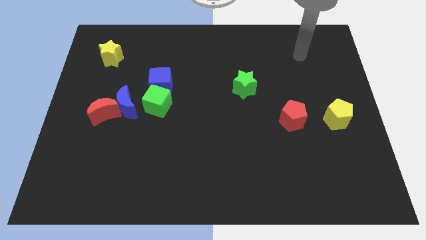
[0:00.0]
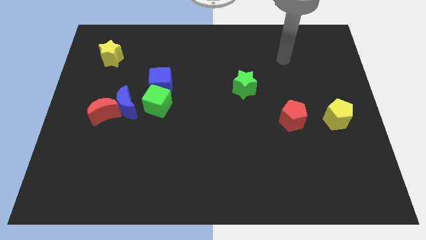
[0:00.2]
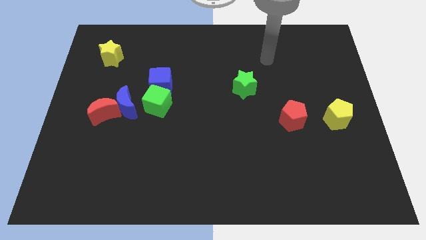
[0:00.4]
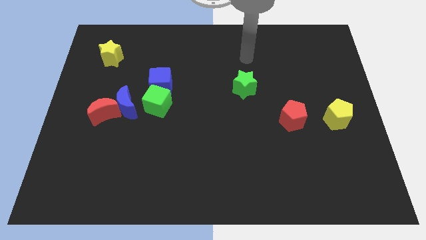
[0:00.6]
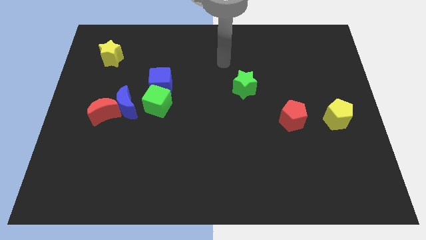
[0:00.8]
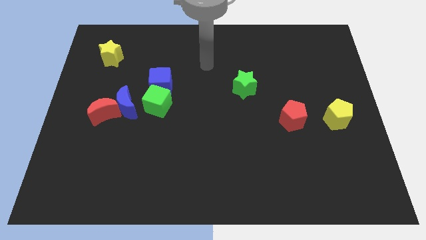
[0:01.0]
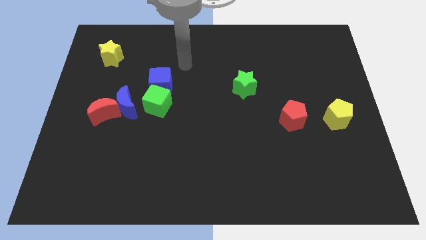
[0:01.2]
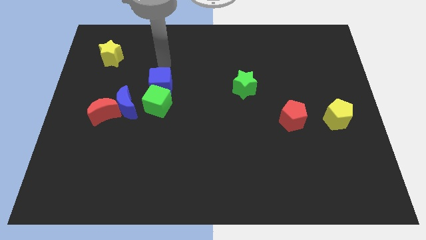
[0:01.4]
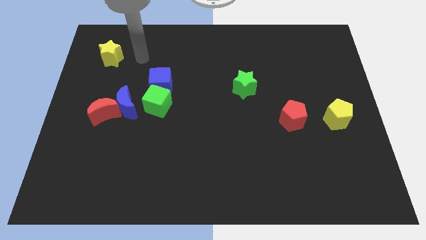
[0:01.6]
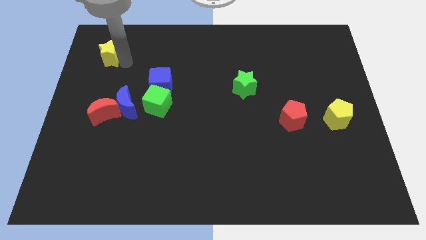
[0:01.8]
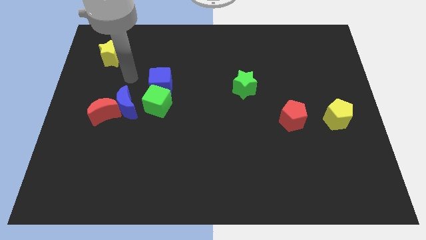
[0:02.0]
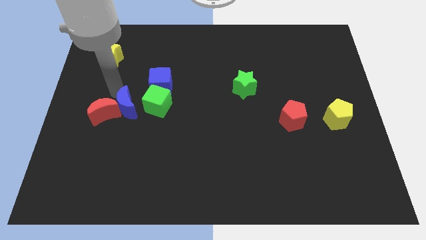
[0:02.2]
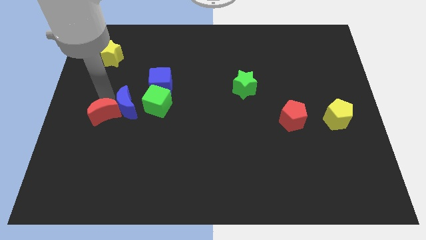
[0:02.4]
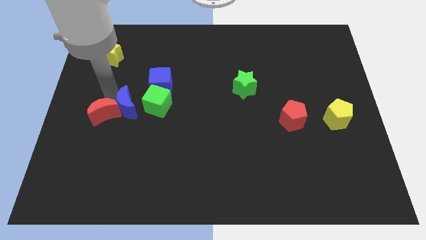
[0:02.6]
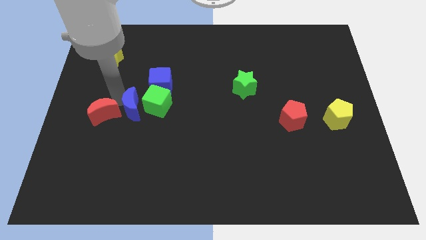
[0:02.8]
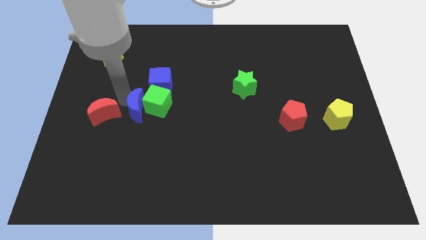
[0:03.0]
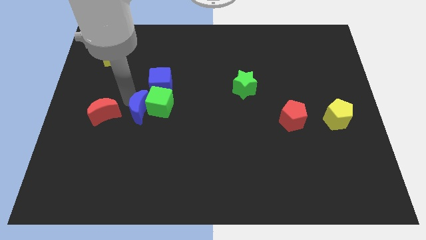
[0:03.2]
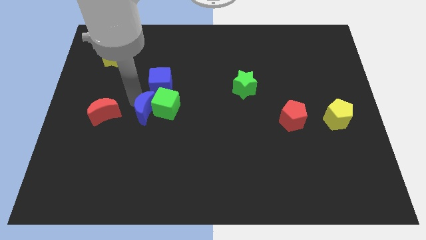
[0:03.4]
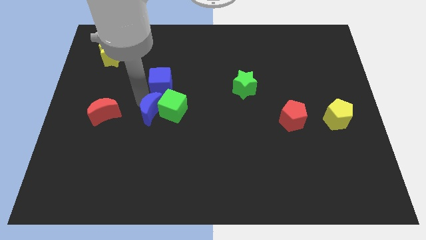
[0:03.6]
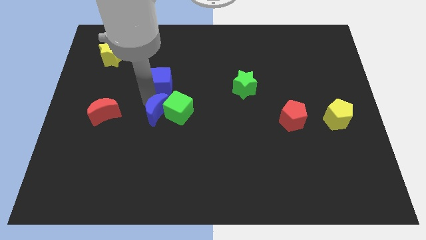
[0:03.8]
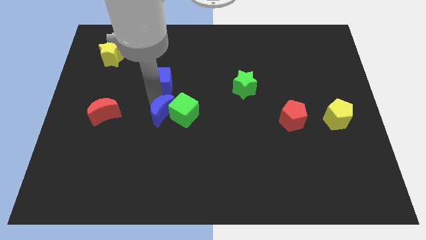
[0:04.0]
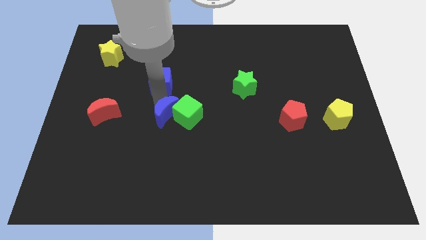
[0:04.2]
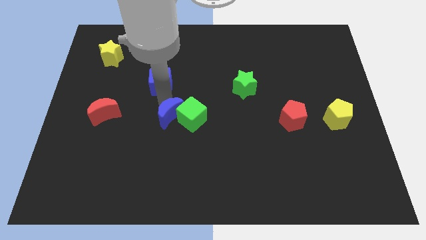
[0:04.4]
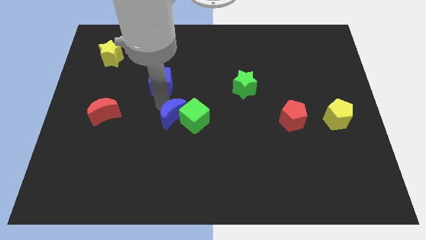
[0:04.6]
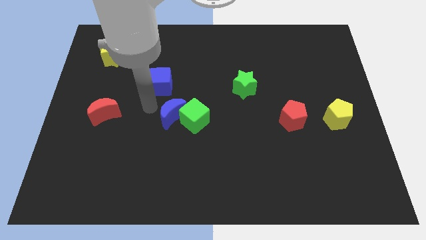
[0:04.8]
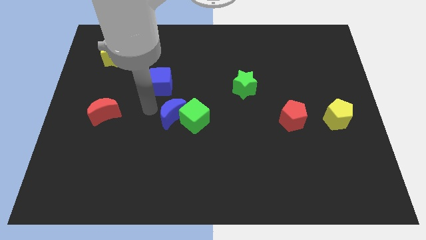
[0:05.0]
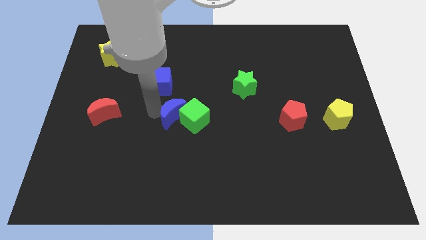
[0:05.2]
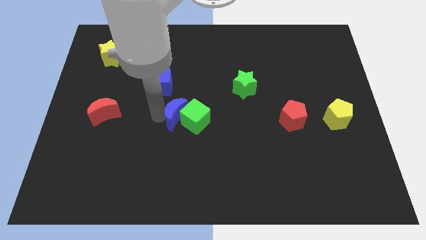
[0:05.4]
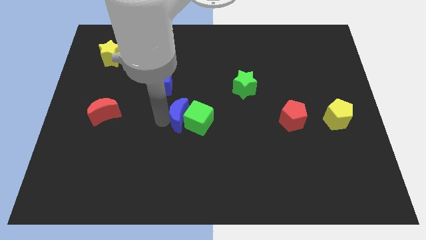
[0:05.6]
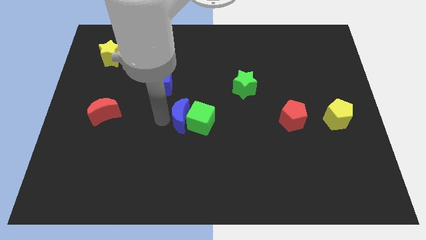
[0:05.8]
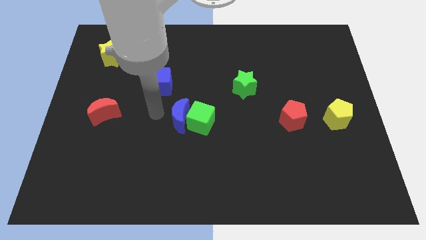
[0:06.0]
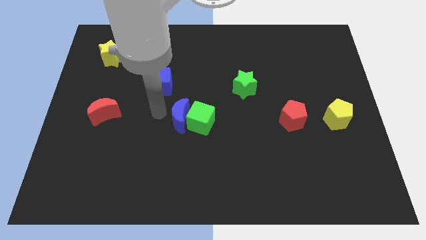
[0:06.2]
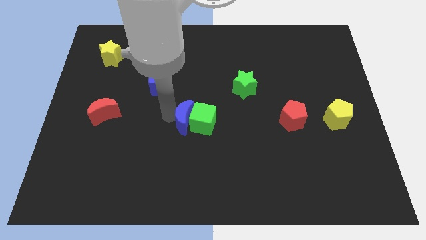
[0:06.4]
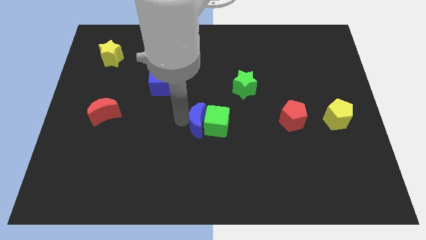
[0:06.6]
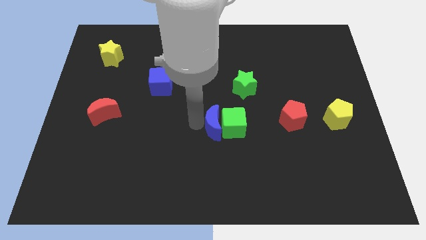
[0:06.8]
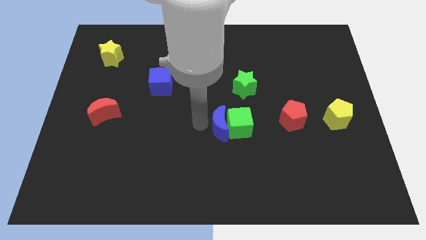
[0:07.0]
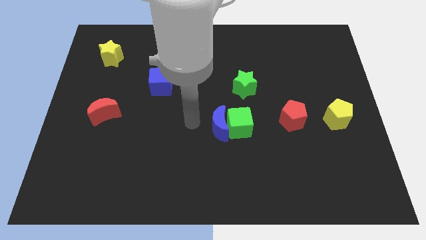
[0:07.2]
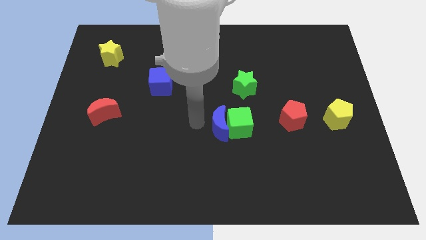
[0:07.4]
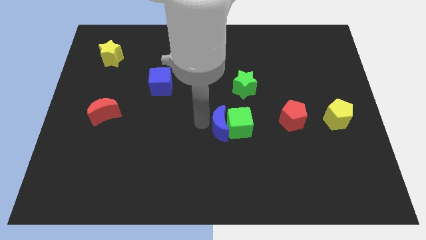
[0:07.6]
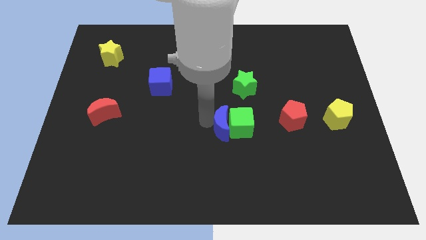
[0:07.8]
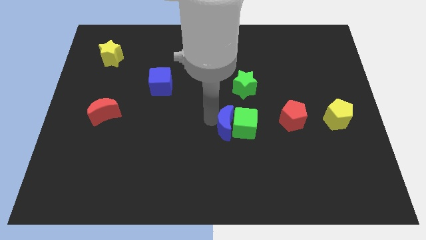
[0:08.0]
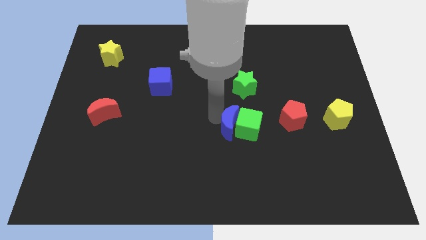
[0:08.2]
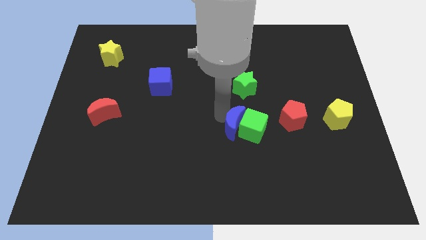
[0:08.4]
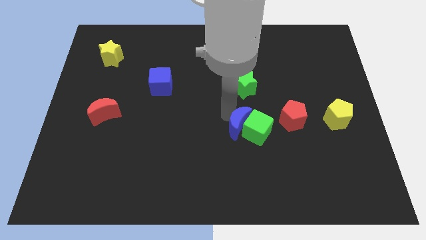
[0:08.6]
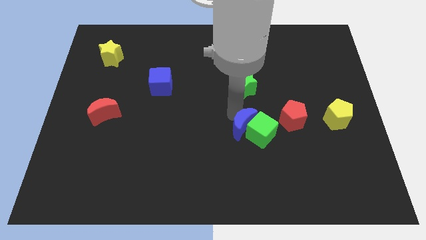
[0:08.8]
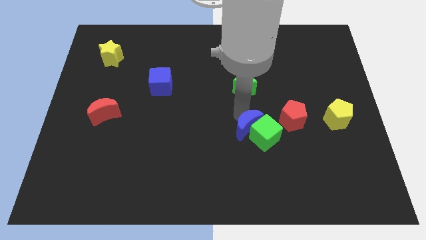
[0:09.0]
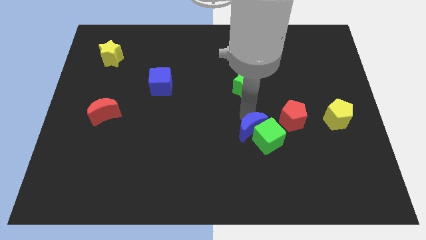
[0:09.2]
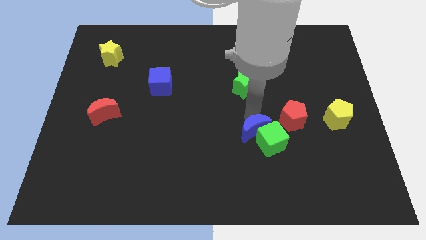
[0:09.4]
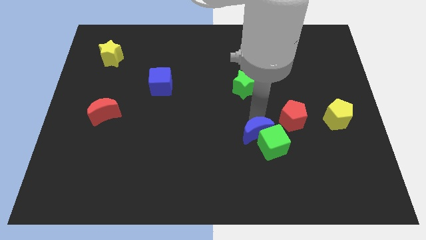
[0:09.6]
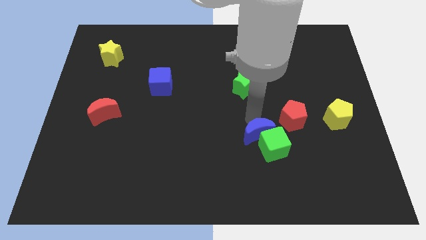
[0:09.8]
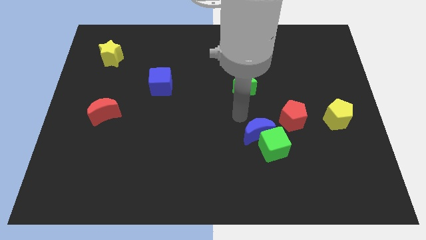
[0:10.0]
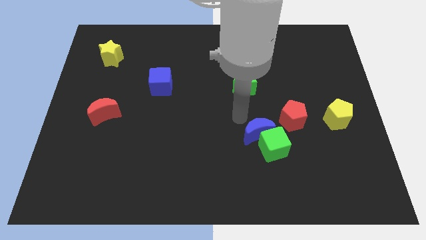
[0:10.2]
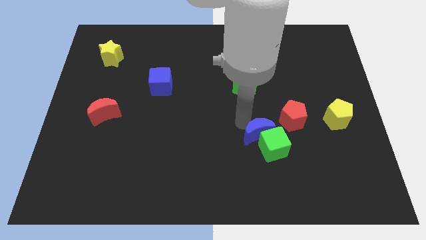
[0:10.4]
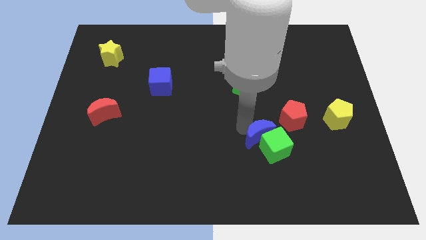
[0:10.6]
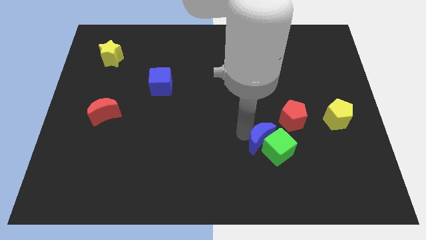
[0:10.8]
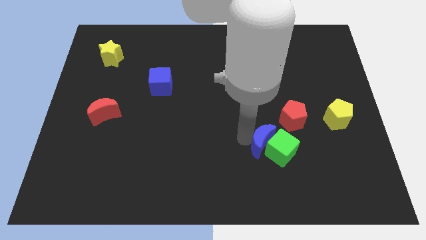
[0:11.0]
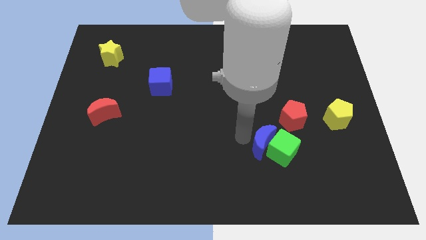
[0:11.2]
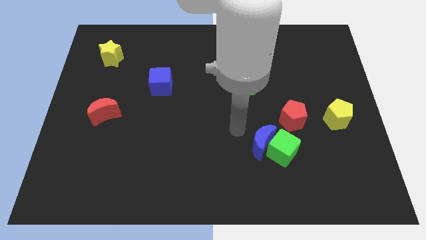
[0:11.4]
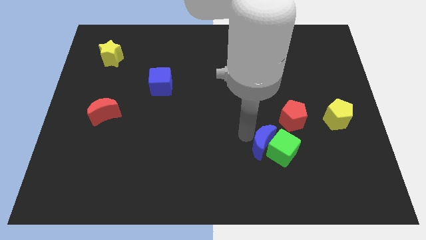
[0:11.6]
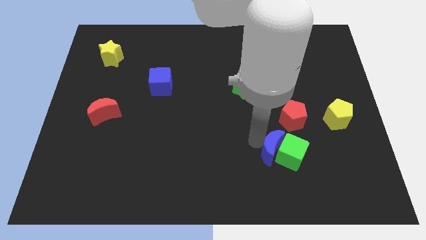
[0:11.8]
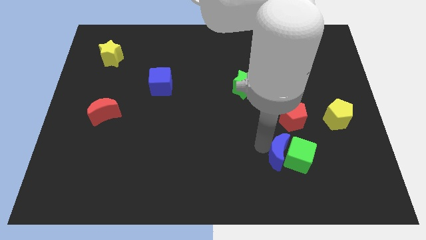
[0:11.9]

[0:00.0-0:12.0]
push the blue moon to the bottom side of the red pentagon

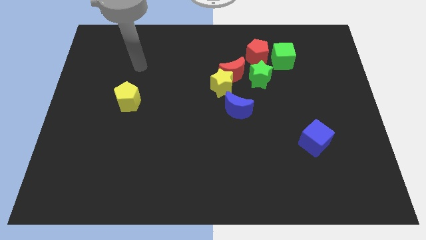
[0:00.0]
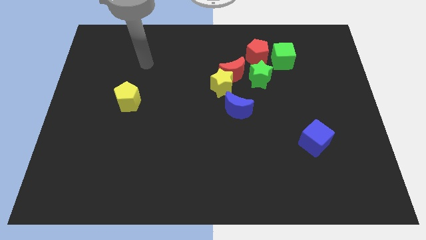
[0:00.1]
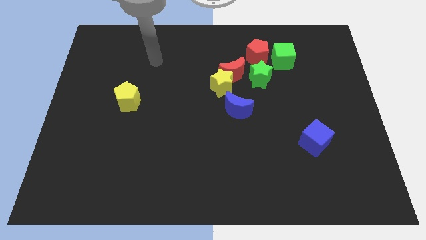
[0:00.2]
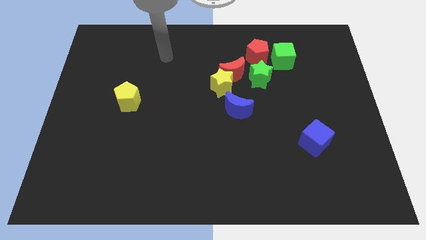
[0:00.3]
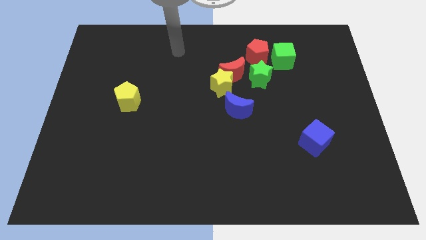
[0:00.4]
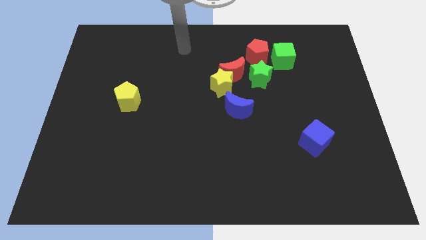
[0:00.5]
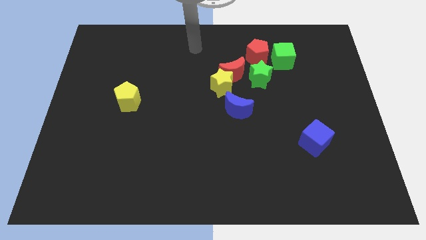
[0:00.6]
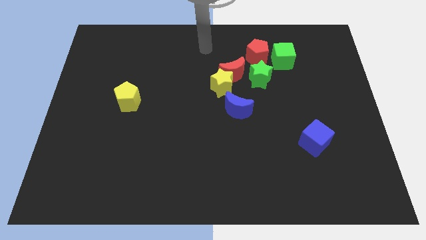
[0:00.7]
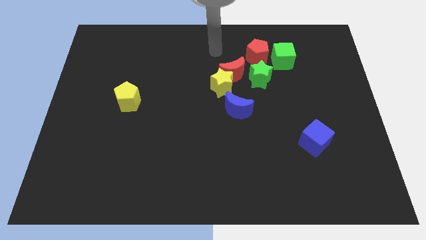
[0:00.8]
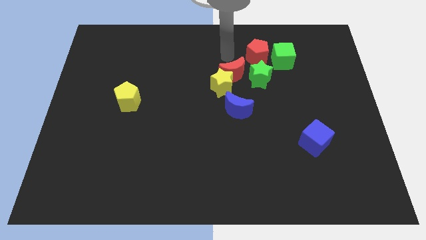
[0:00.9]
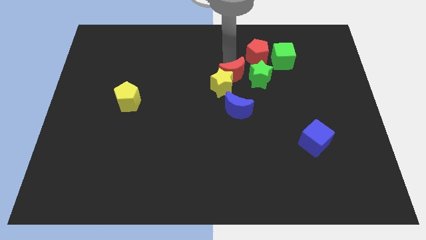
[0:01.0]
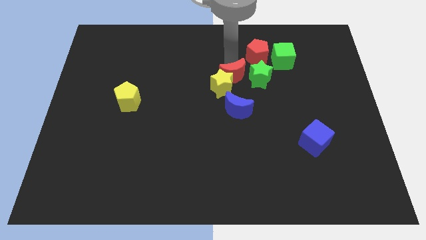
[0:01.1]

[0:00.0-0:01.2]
put the red moon diagonally down and to the left of the green star
